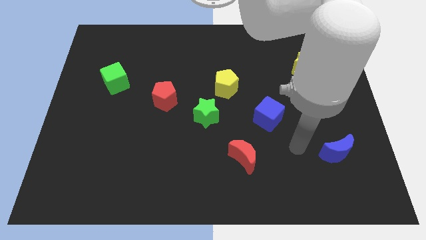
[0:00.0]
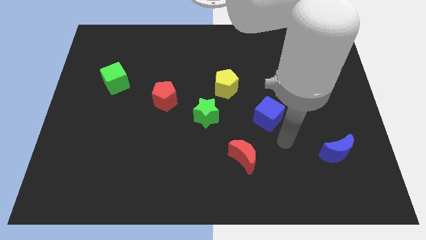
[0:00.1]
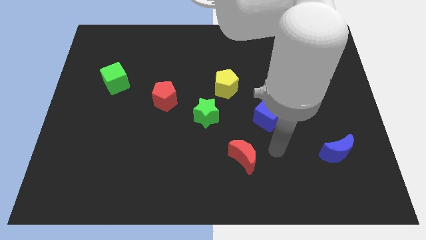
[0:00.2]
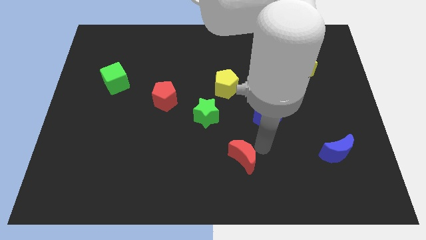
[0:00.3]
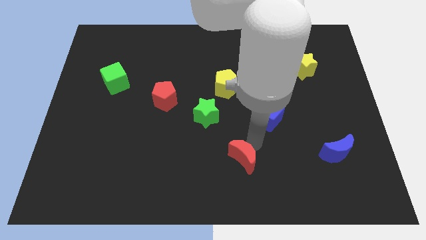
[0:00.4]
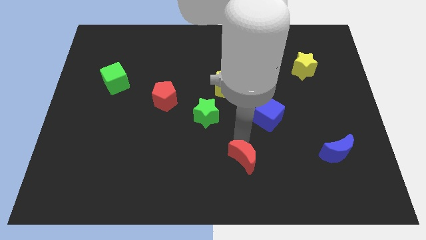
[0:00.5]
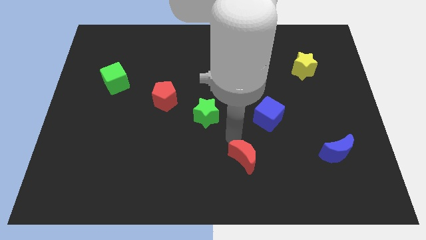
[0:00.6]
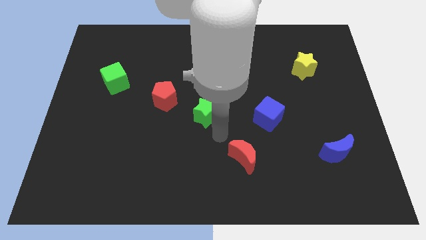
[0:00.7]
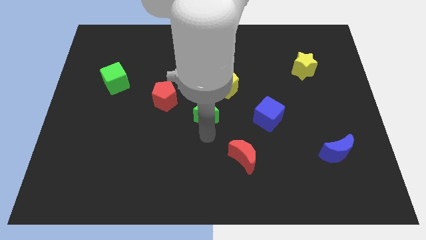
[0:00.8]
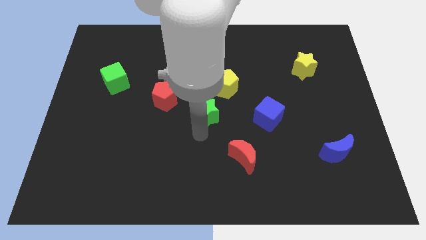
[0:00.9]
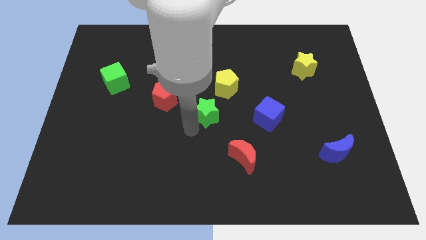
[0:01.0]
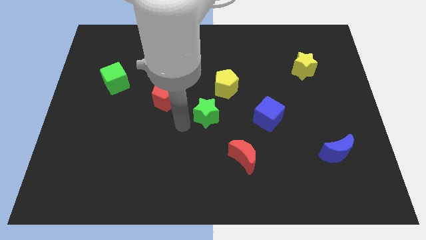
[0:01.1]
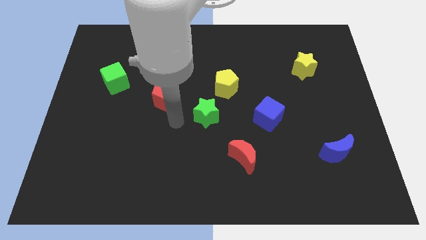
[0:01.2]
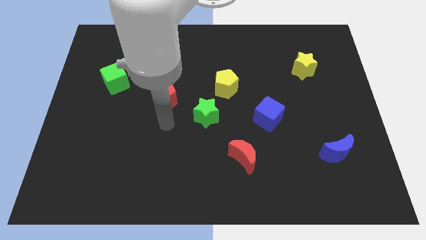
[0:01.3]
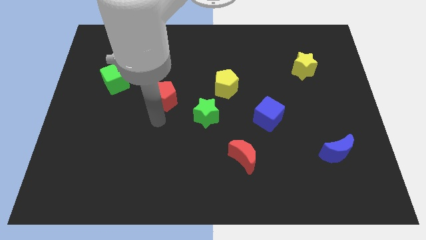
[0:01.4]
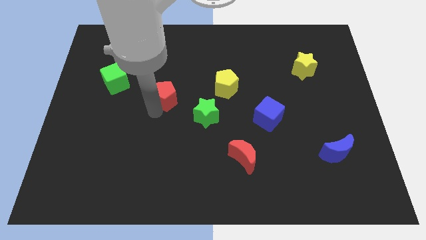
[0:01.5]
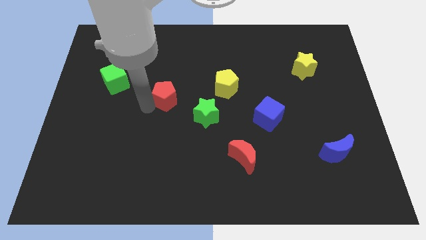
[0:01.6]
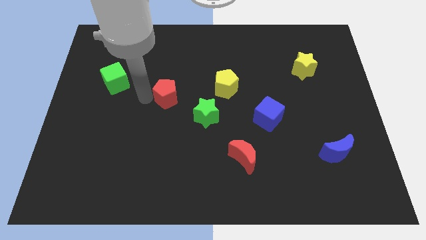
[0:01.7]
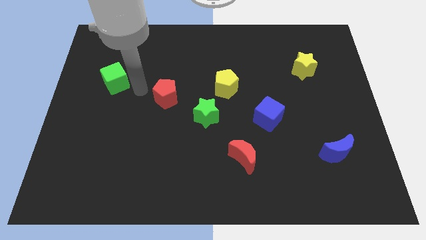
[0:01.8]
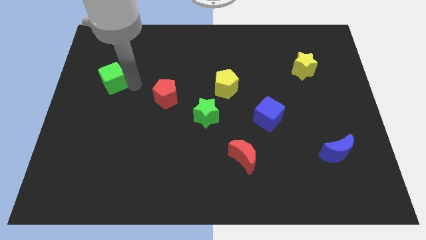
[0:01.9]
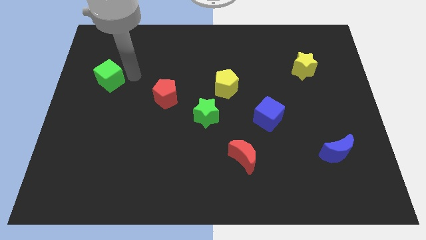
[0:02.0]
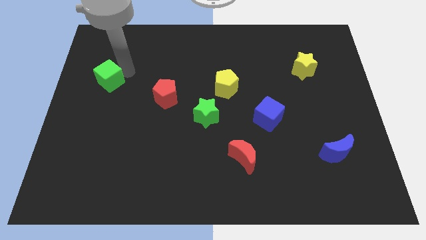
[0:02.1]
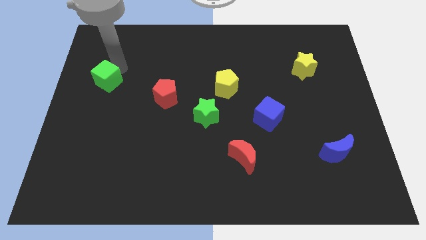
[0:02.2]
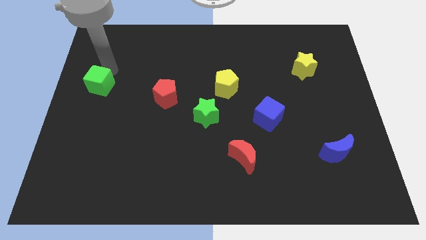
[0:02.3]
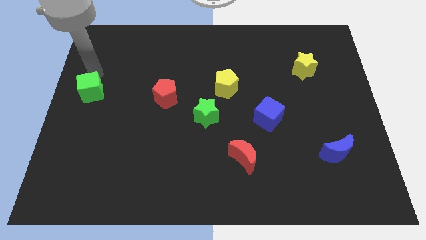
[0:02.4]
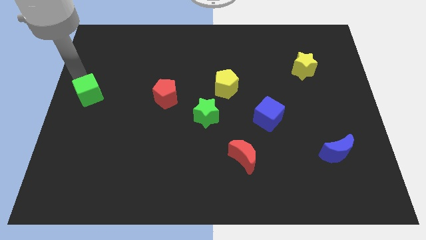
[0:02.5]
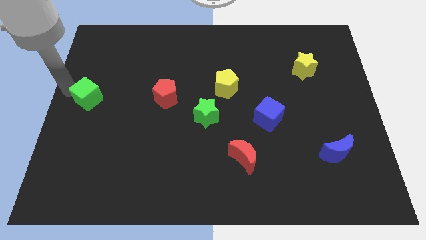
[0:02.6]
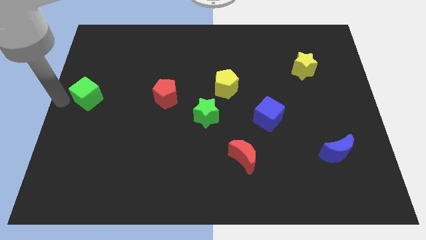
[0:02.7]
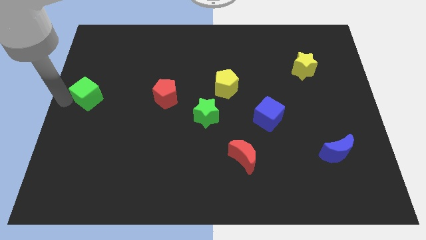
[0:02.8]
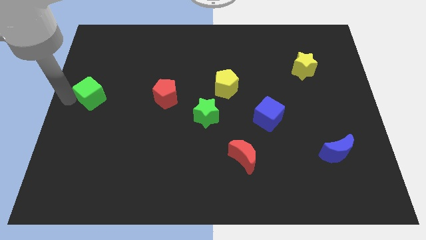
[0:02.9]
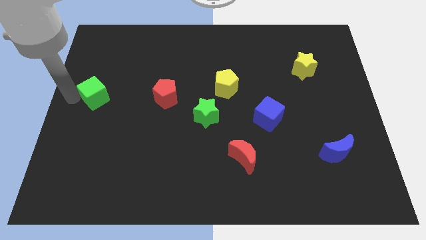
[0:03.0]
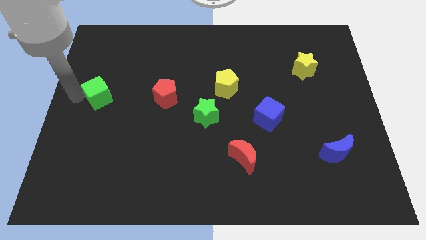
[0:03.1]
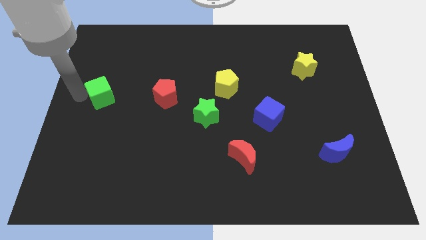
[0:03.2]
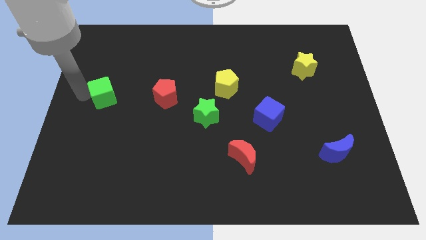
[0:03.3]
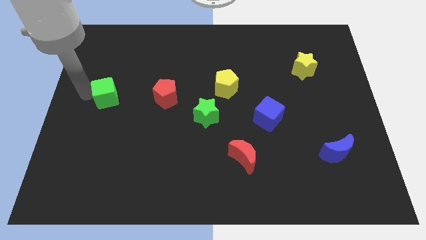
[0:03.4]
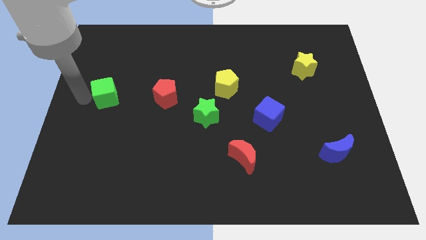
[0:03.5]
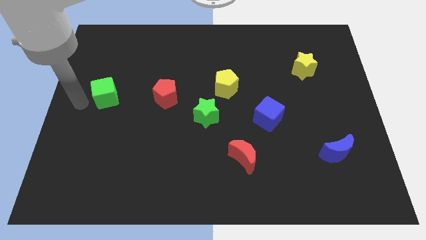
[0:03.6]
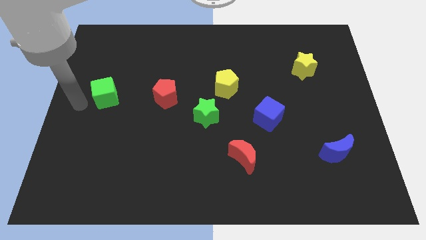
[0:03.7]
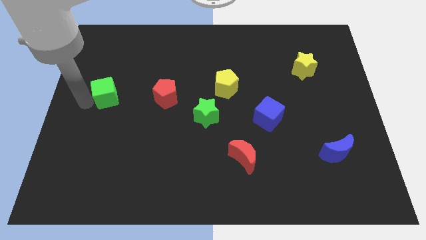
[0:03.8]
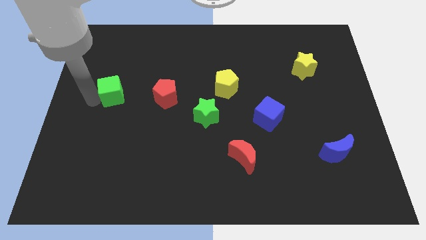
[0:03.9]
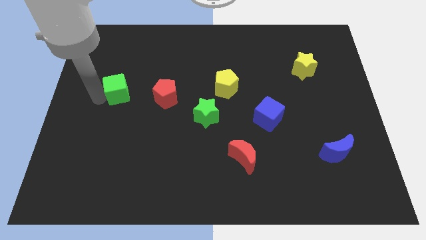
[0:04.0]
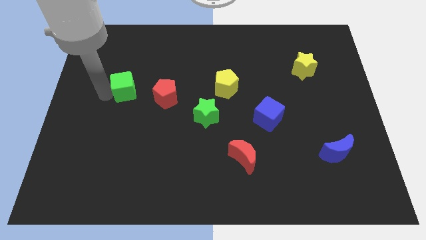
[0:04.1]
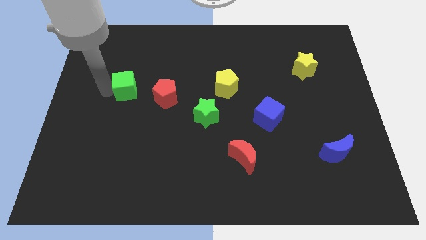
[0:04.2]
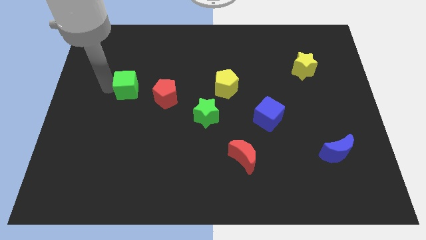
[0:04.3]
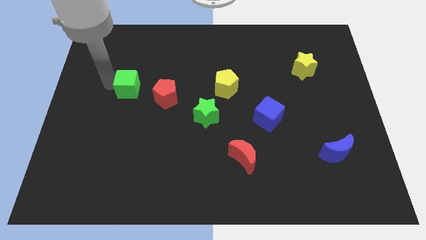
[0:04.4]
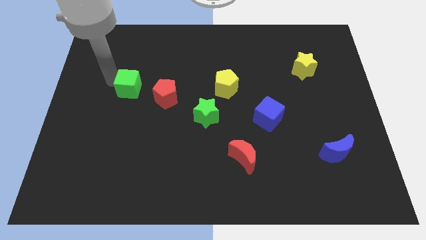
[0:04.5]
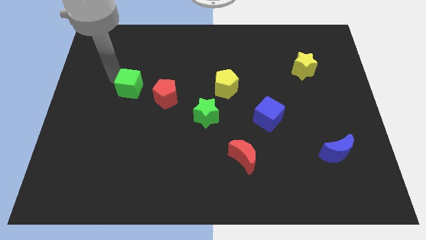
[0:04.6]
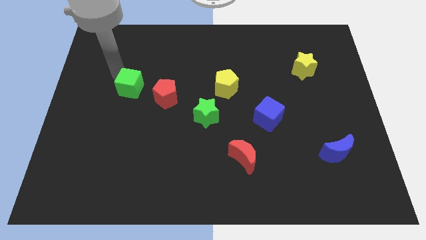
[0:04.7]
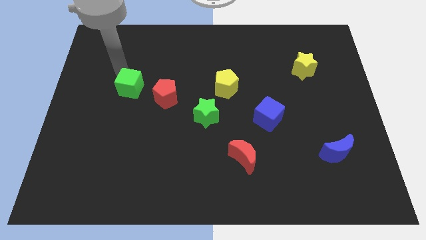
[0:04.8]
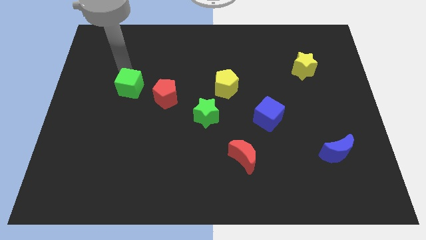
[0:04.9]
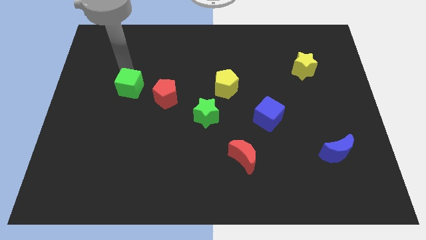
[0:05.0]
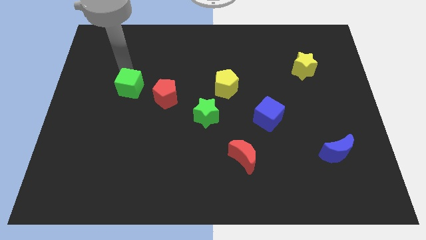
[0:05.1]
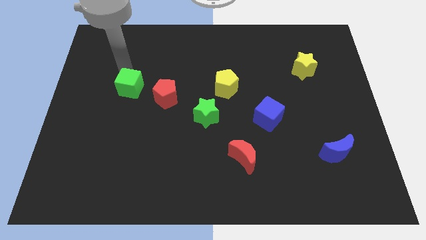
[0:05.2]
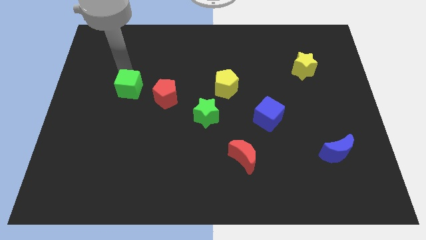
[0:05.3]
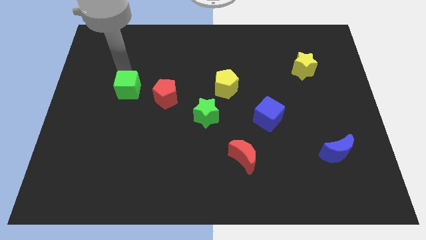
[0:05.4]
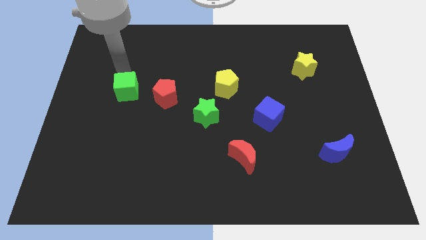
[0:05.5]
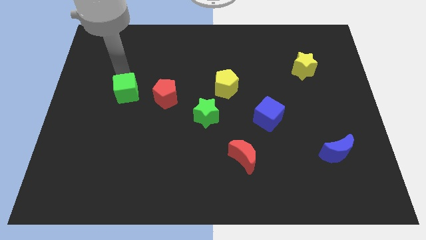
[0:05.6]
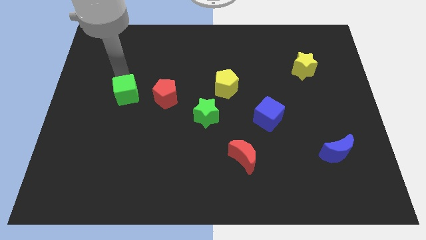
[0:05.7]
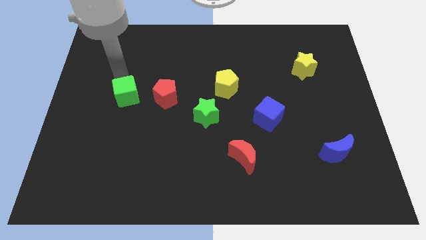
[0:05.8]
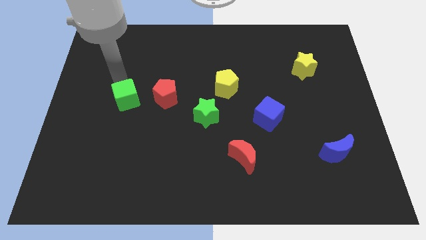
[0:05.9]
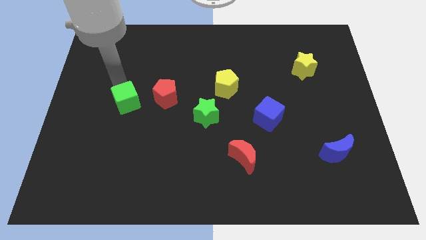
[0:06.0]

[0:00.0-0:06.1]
move the green cube a bit downwards and then to the right

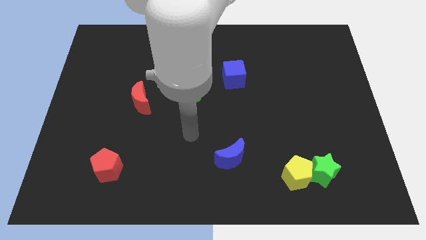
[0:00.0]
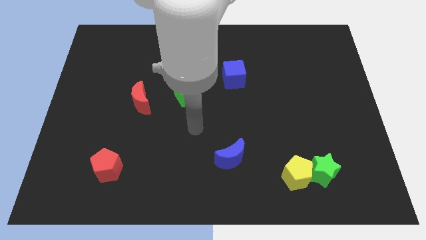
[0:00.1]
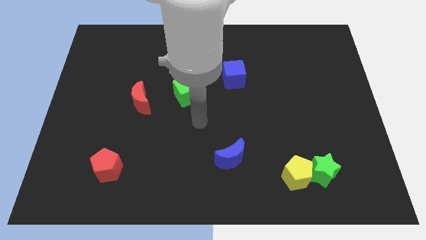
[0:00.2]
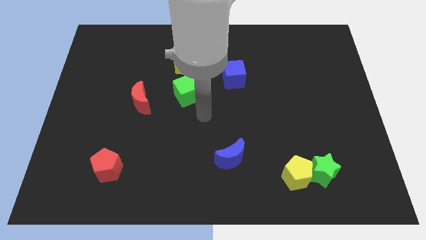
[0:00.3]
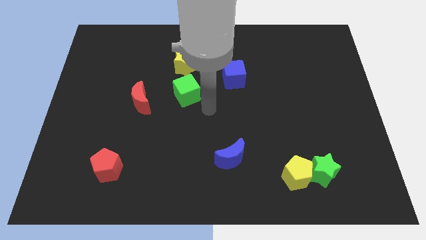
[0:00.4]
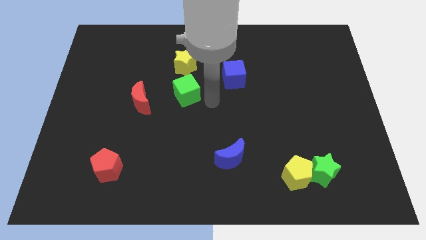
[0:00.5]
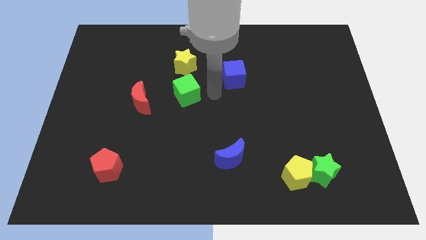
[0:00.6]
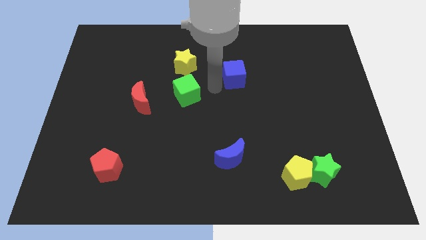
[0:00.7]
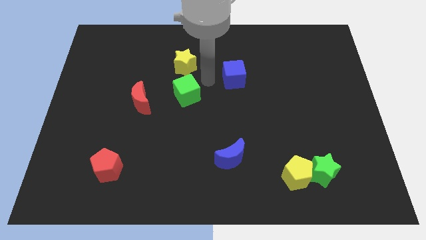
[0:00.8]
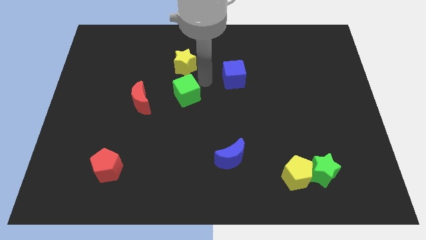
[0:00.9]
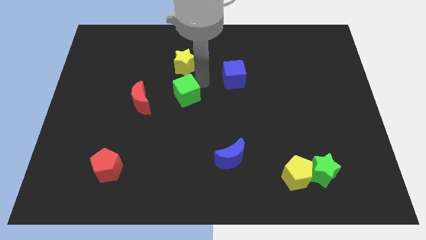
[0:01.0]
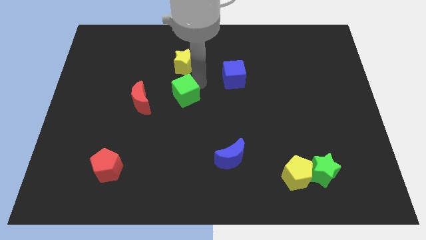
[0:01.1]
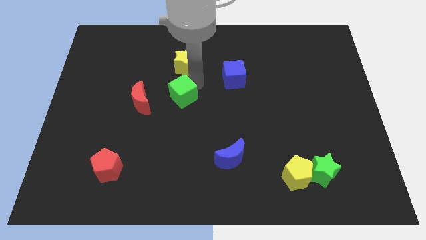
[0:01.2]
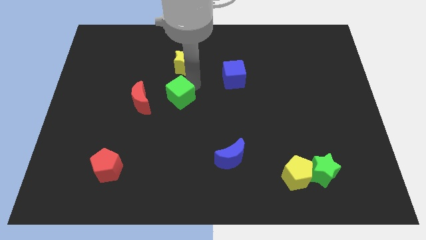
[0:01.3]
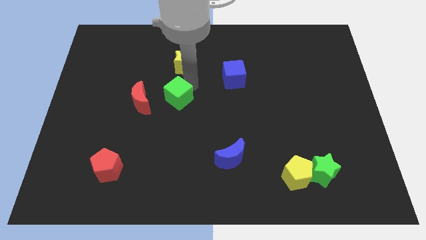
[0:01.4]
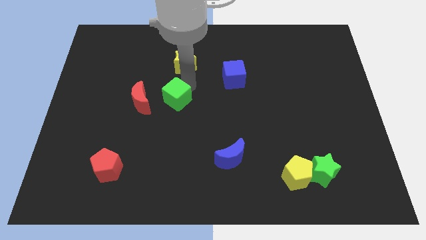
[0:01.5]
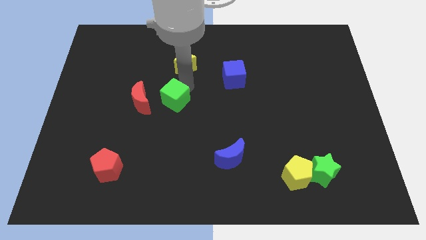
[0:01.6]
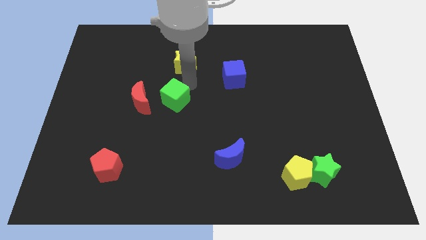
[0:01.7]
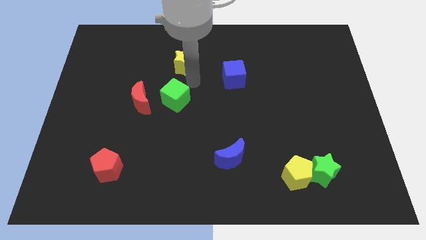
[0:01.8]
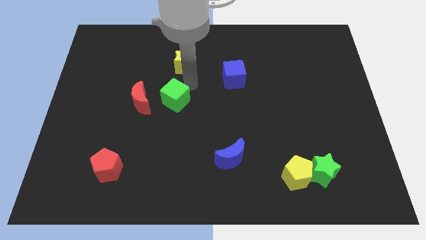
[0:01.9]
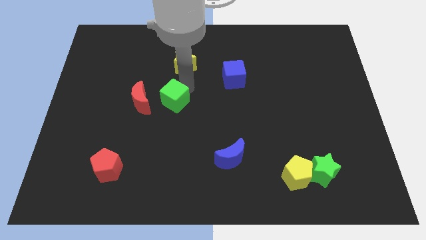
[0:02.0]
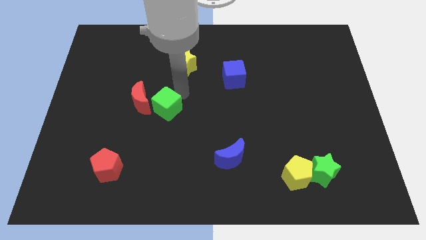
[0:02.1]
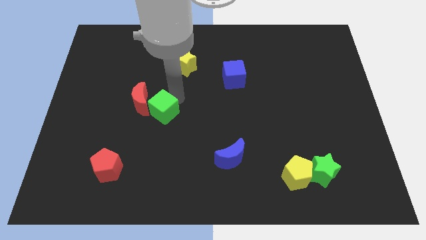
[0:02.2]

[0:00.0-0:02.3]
move the green cube diagonally down and to the left somewhat

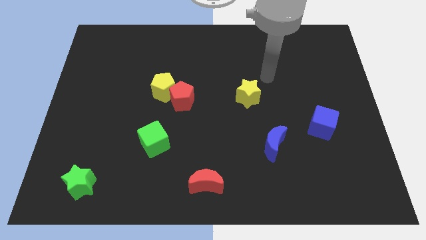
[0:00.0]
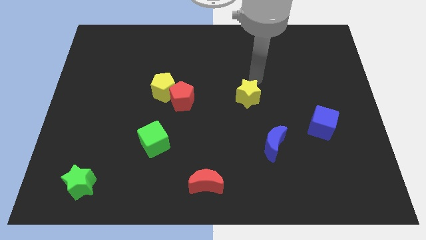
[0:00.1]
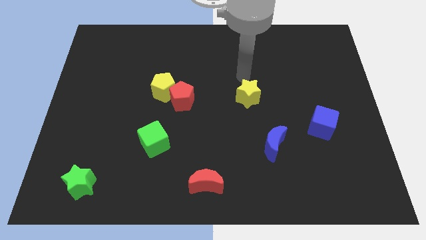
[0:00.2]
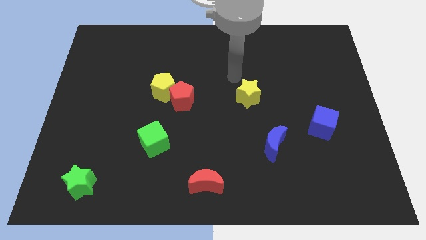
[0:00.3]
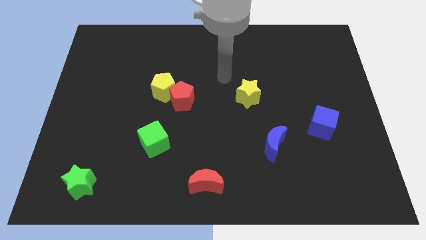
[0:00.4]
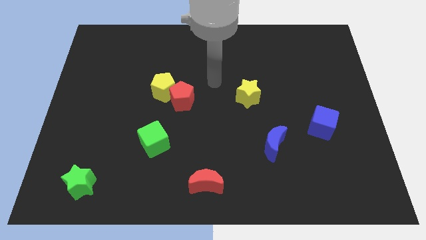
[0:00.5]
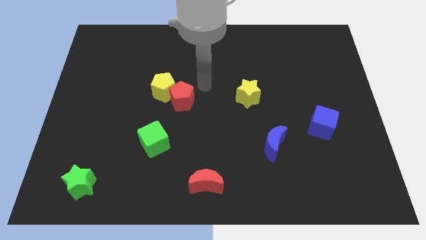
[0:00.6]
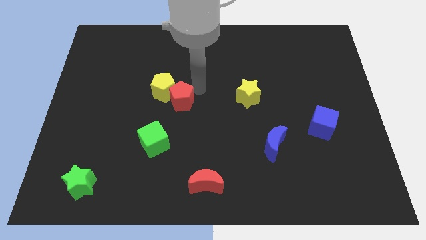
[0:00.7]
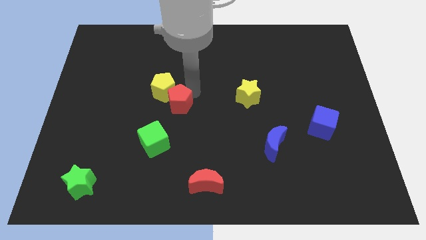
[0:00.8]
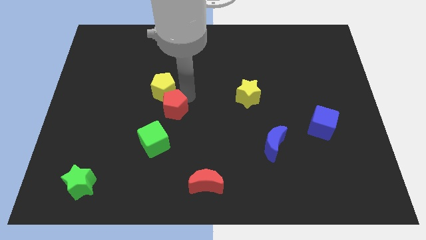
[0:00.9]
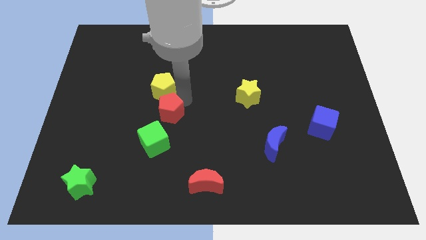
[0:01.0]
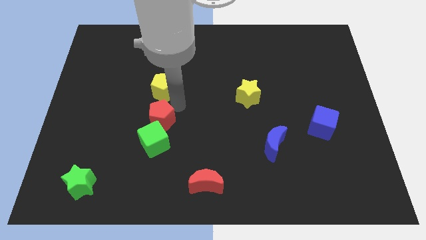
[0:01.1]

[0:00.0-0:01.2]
push the red pentagon diagonally downwards and left a bit
